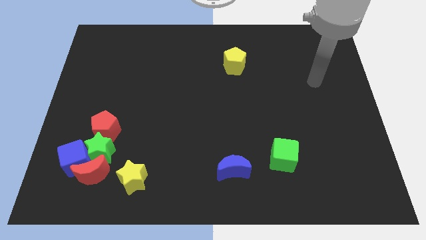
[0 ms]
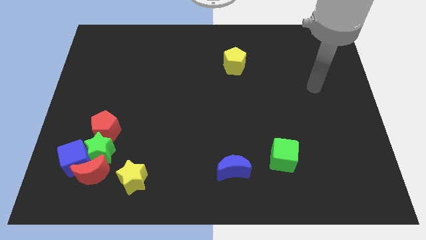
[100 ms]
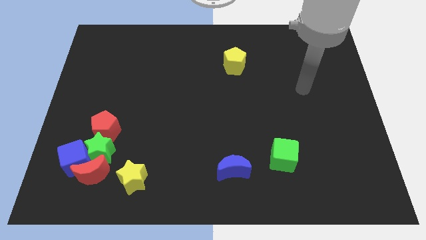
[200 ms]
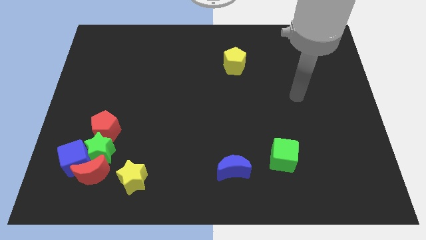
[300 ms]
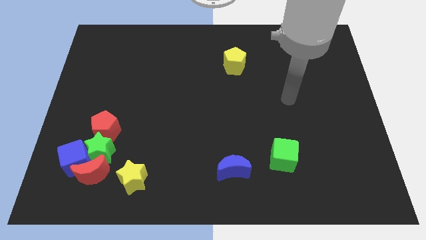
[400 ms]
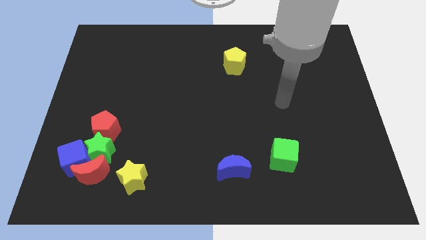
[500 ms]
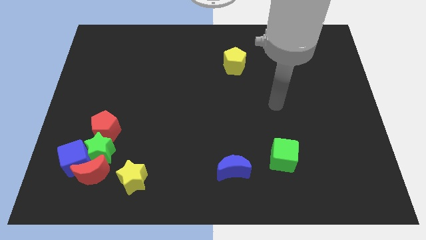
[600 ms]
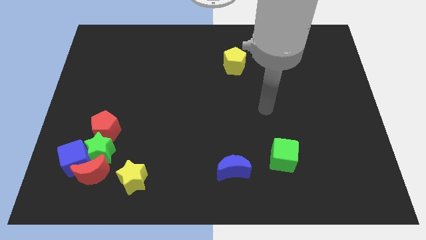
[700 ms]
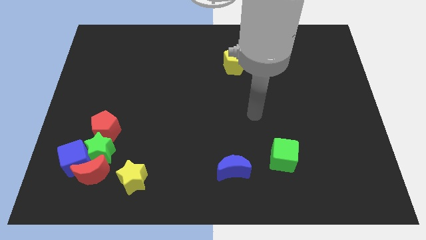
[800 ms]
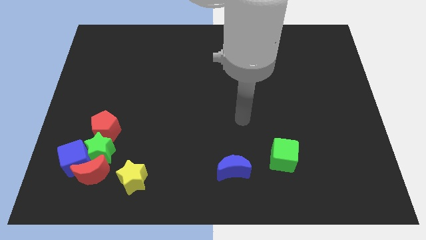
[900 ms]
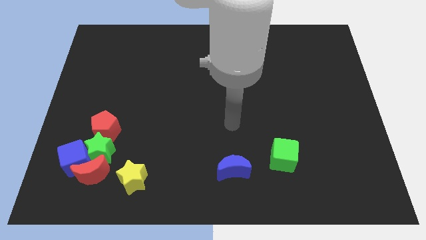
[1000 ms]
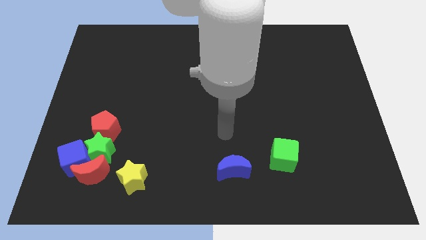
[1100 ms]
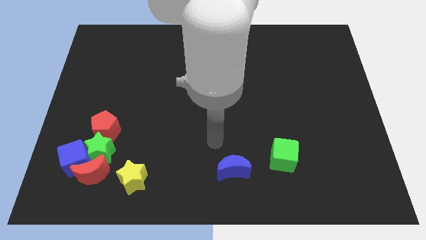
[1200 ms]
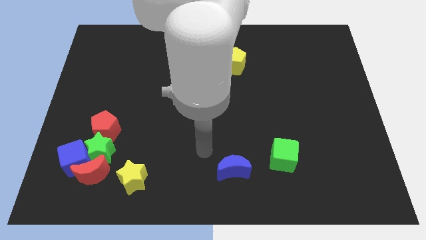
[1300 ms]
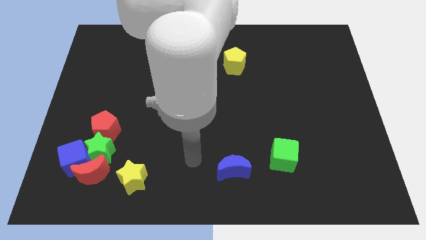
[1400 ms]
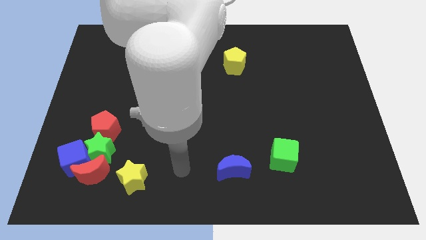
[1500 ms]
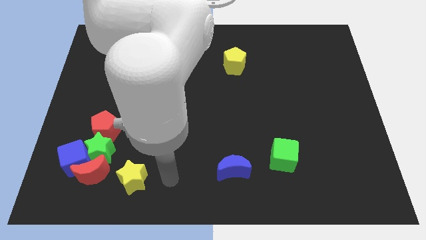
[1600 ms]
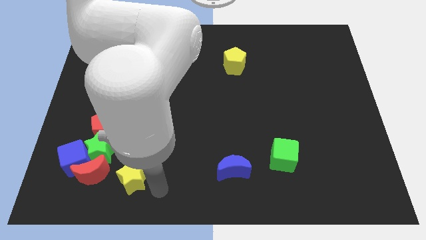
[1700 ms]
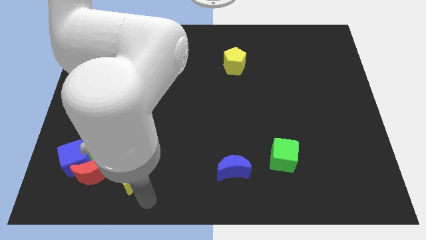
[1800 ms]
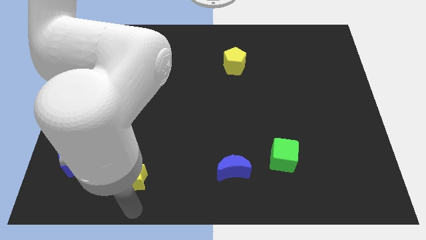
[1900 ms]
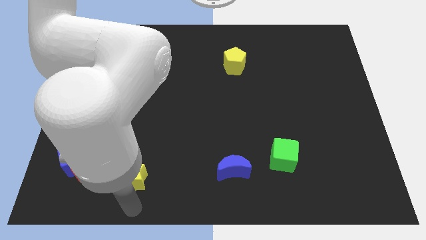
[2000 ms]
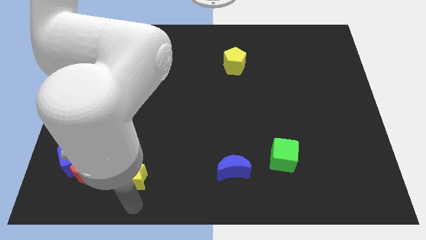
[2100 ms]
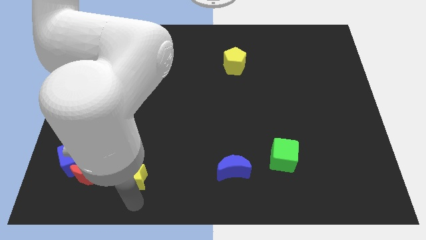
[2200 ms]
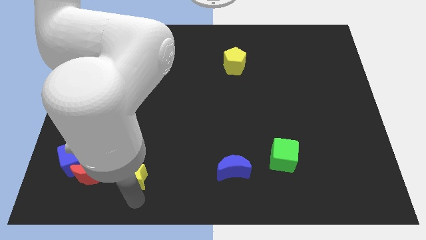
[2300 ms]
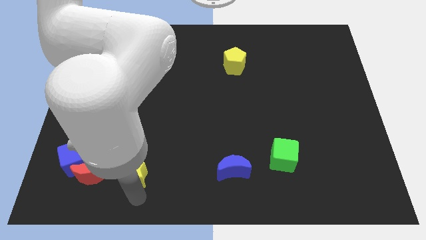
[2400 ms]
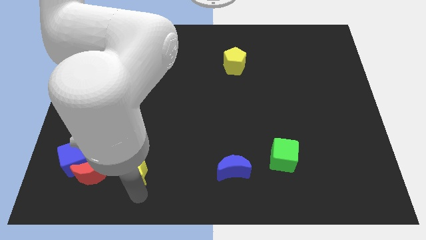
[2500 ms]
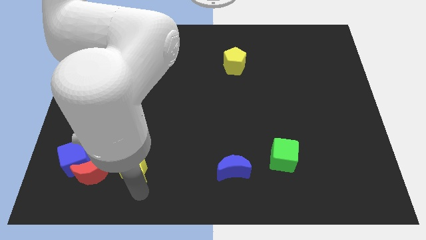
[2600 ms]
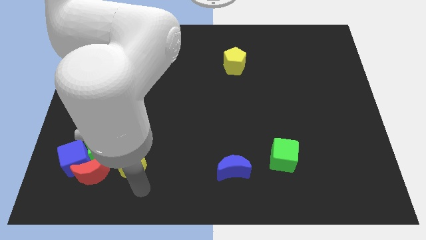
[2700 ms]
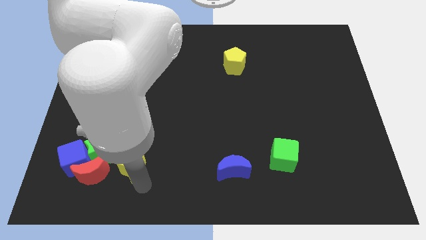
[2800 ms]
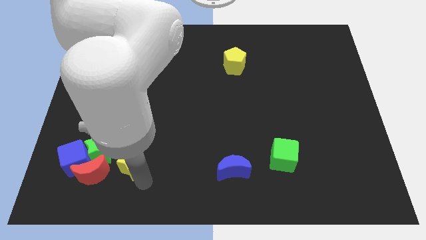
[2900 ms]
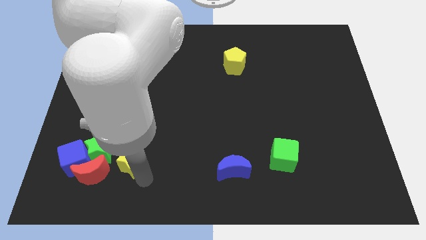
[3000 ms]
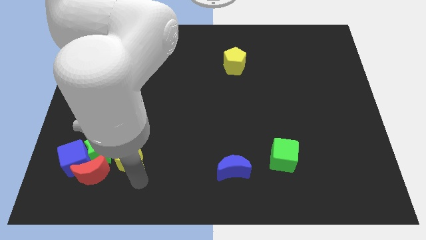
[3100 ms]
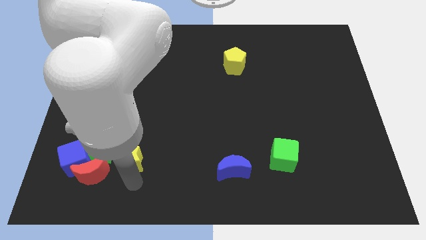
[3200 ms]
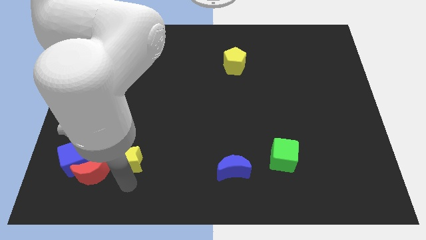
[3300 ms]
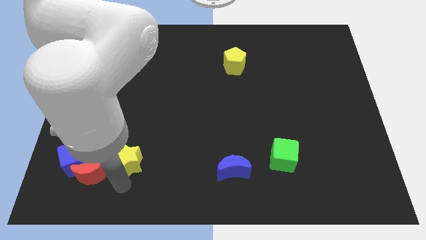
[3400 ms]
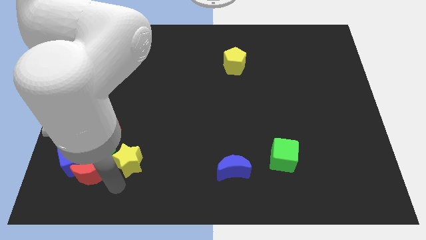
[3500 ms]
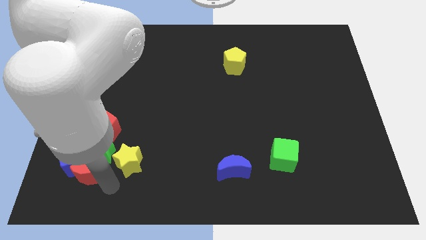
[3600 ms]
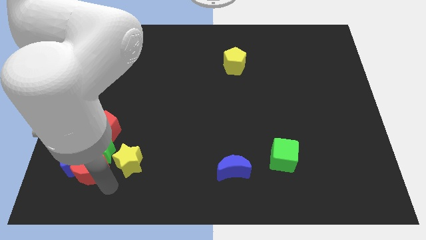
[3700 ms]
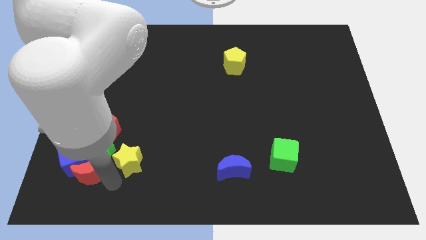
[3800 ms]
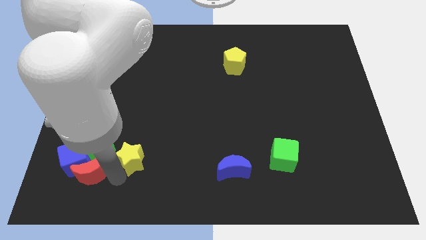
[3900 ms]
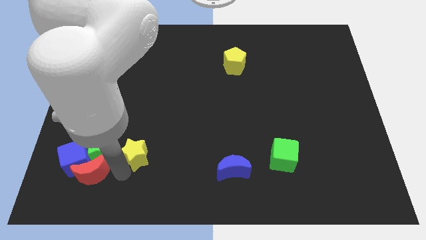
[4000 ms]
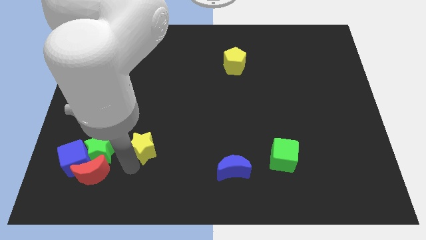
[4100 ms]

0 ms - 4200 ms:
slightly push the yellow star upwards

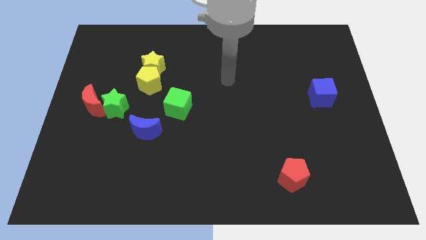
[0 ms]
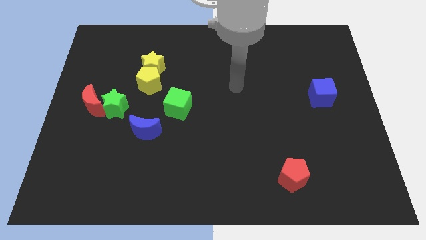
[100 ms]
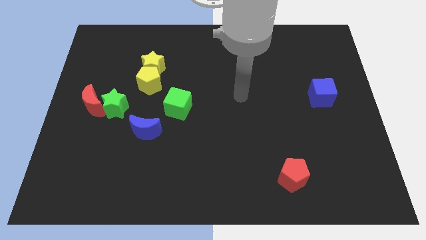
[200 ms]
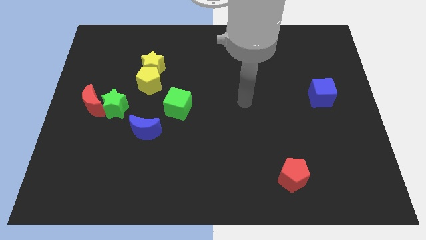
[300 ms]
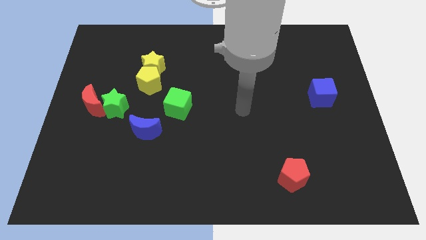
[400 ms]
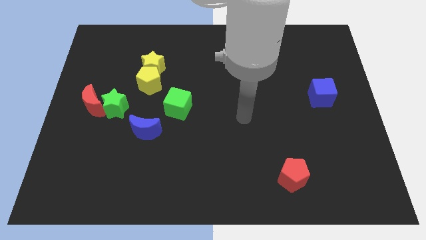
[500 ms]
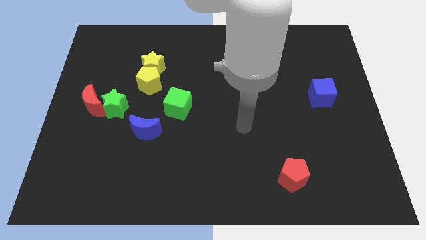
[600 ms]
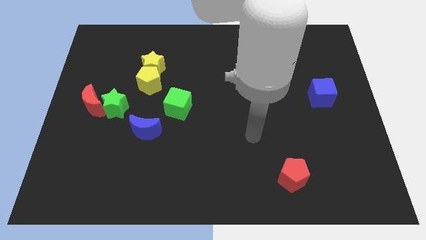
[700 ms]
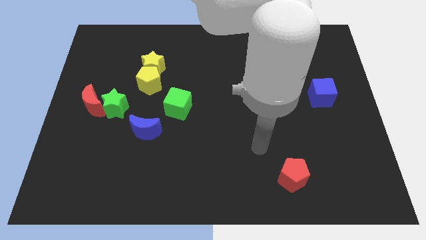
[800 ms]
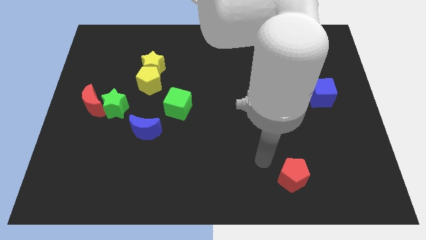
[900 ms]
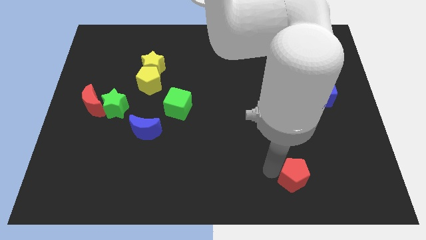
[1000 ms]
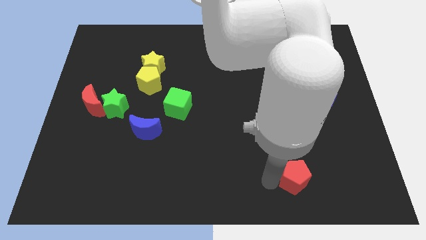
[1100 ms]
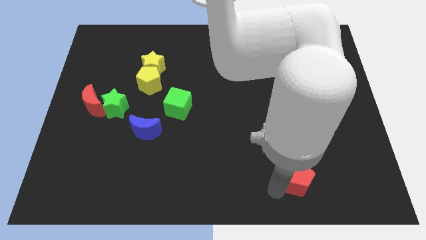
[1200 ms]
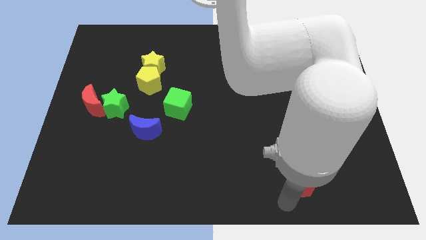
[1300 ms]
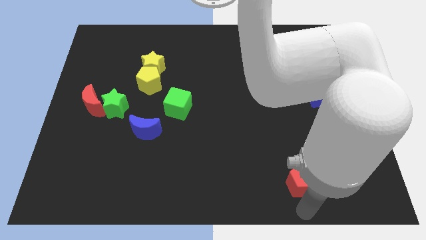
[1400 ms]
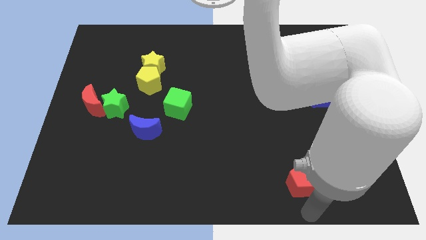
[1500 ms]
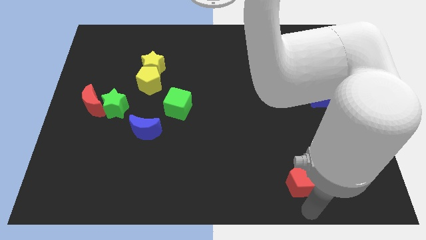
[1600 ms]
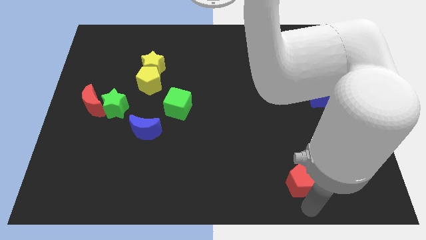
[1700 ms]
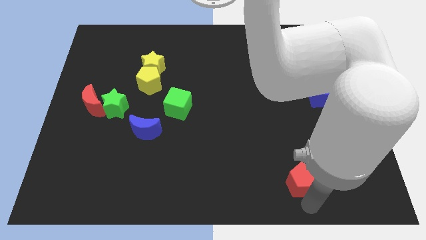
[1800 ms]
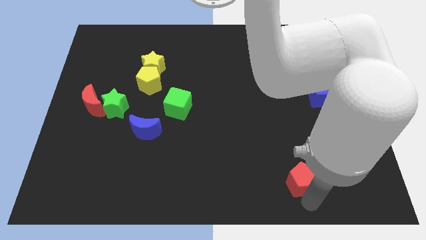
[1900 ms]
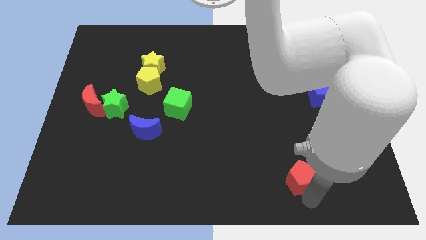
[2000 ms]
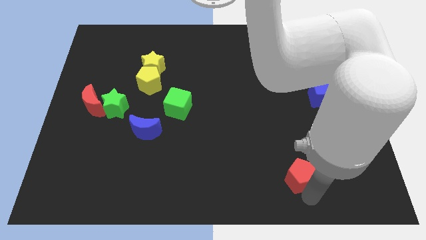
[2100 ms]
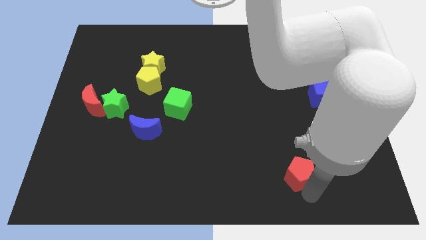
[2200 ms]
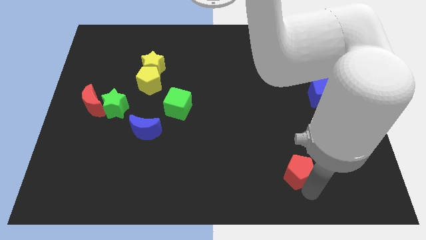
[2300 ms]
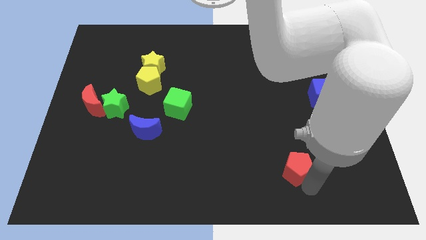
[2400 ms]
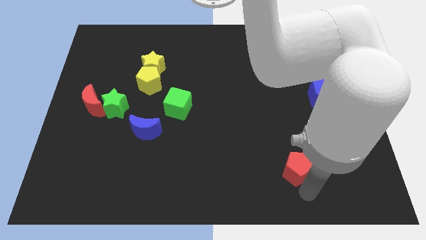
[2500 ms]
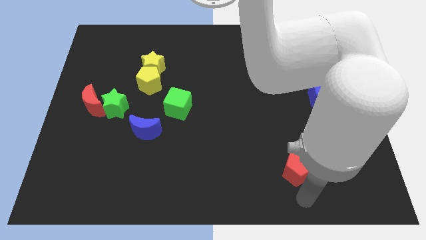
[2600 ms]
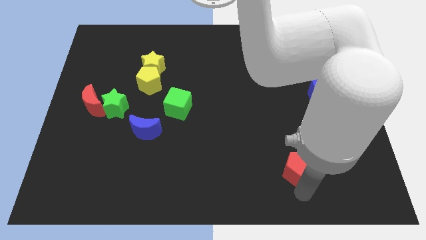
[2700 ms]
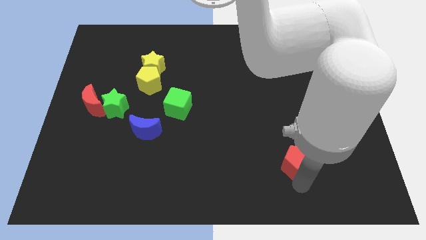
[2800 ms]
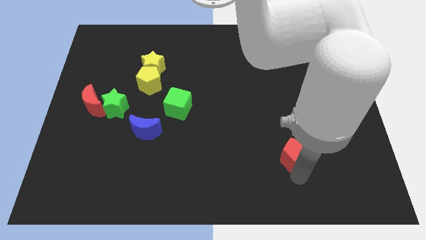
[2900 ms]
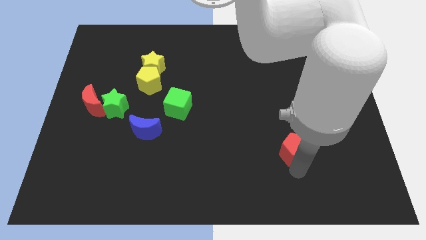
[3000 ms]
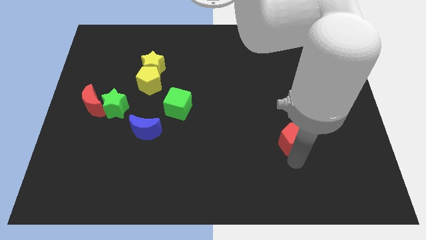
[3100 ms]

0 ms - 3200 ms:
slide the red pentagon upwards slightly
